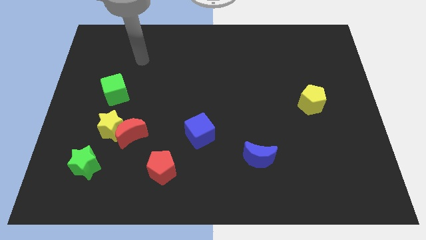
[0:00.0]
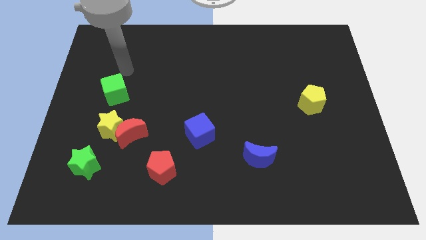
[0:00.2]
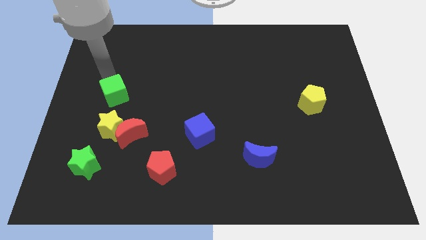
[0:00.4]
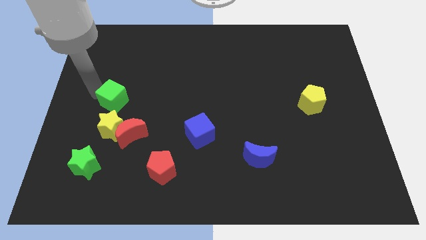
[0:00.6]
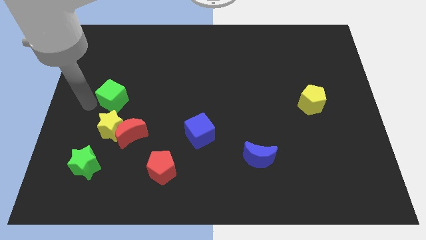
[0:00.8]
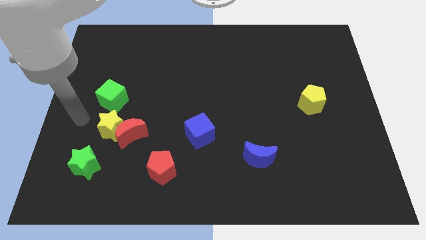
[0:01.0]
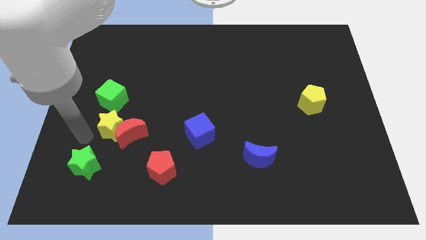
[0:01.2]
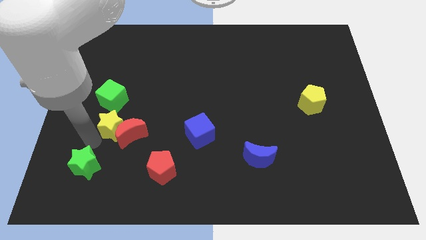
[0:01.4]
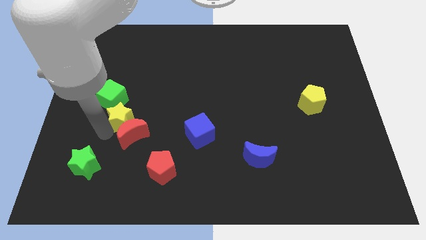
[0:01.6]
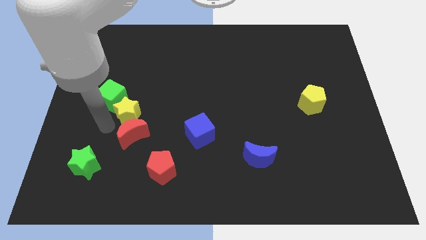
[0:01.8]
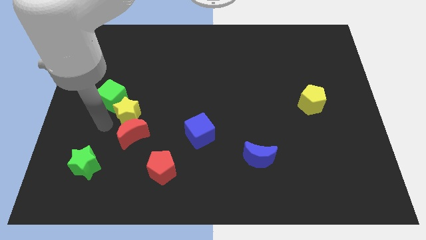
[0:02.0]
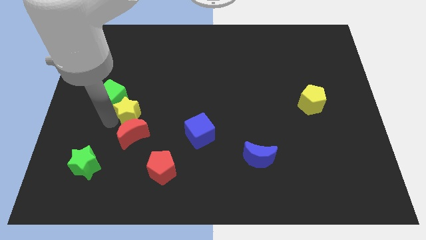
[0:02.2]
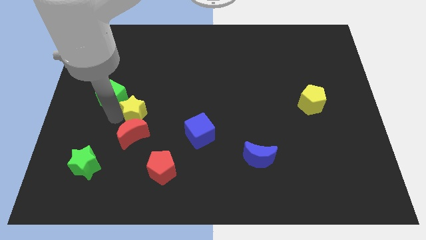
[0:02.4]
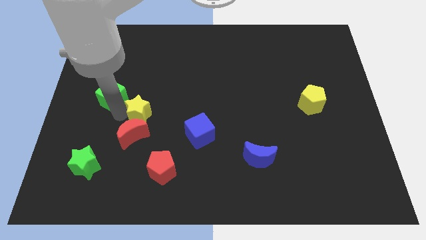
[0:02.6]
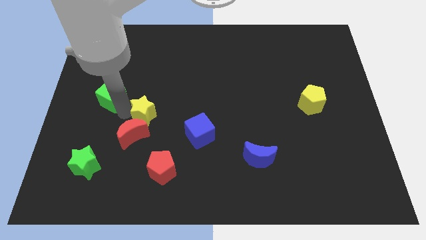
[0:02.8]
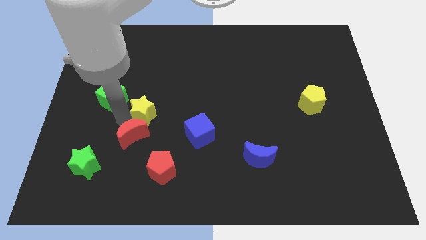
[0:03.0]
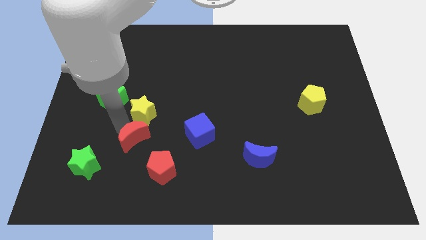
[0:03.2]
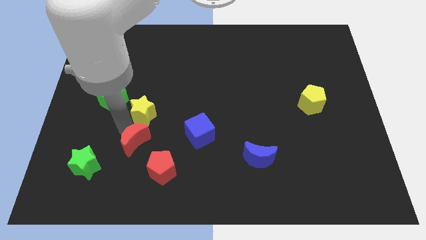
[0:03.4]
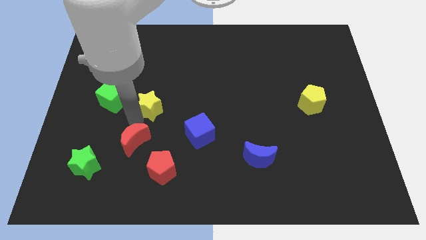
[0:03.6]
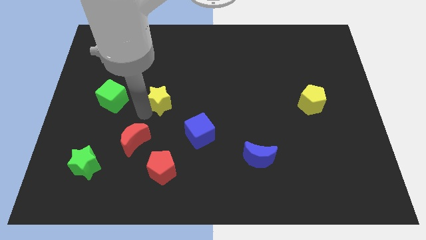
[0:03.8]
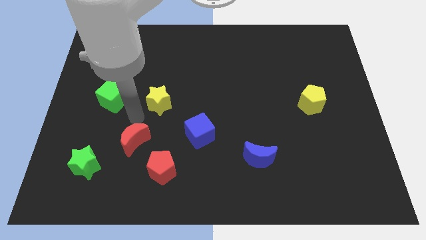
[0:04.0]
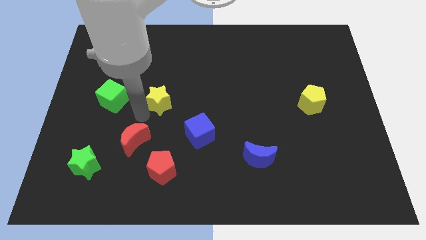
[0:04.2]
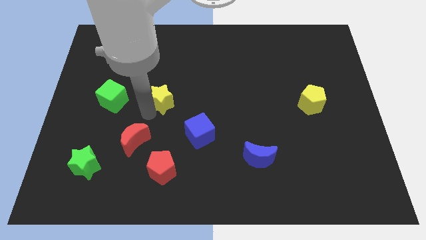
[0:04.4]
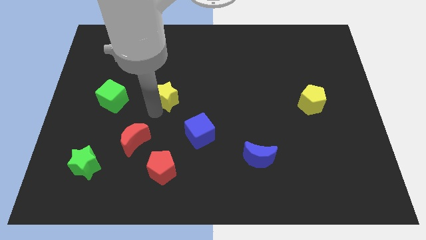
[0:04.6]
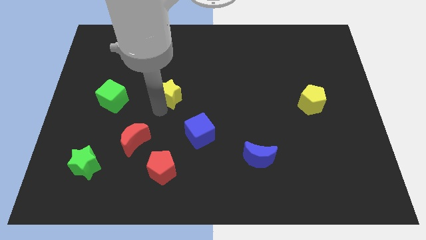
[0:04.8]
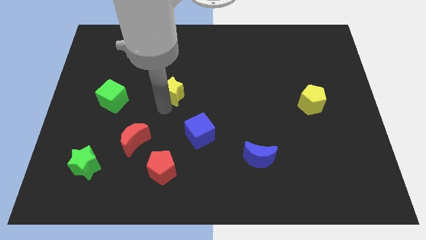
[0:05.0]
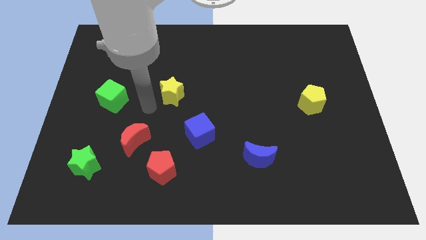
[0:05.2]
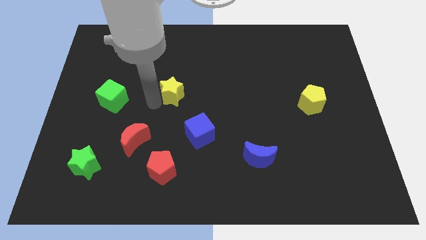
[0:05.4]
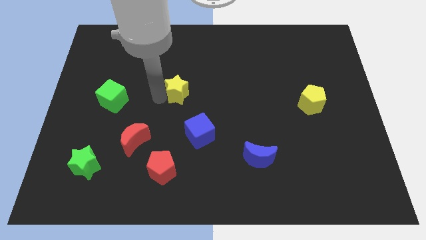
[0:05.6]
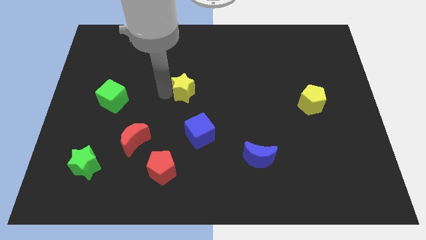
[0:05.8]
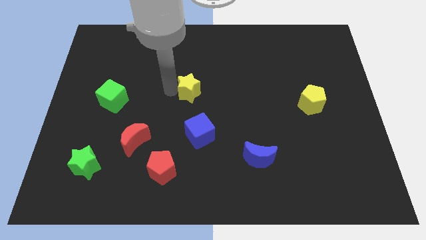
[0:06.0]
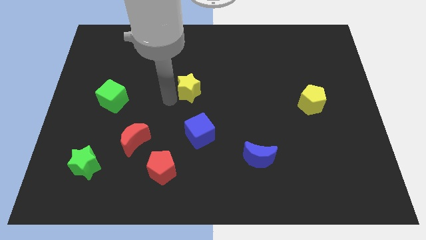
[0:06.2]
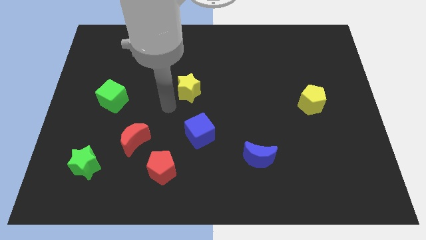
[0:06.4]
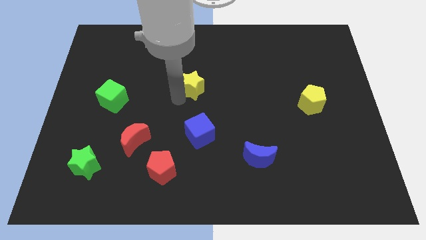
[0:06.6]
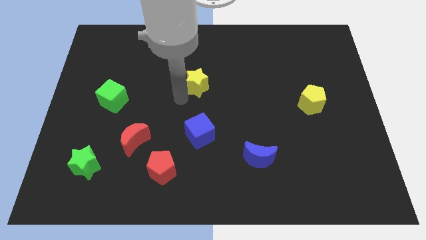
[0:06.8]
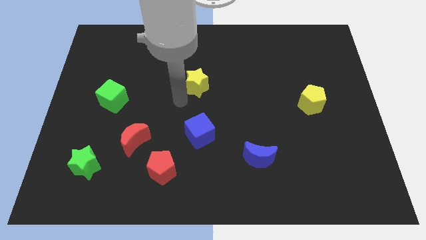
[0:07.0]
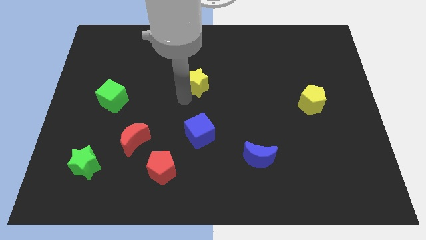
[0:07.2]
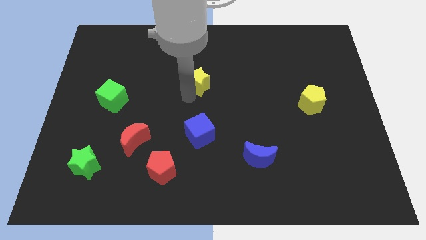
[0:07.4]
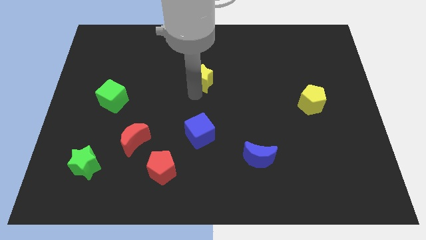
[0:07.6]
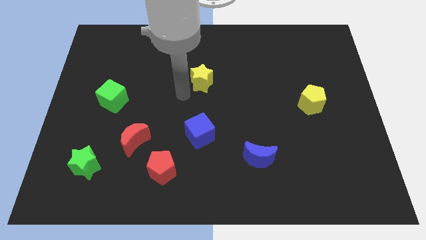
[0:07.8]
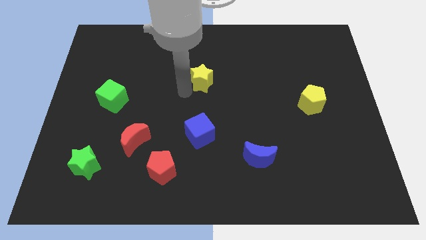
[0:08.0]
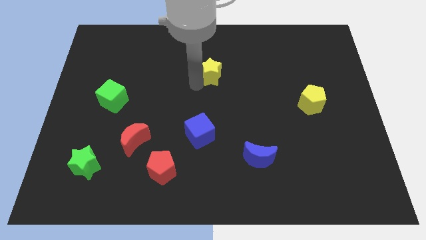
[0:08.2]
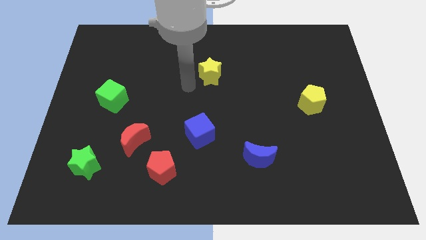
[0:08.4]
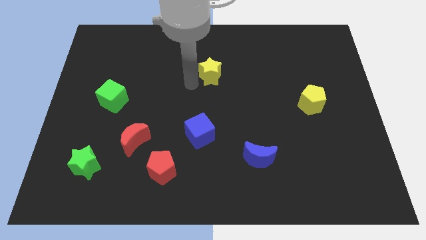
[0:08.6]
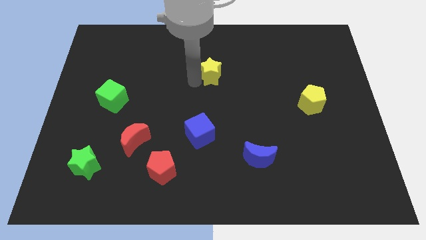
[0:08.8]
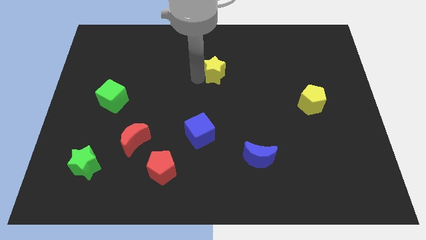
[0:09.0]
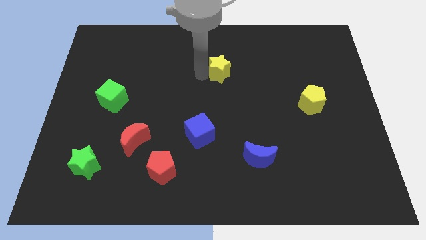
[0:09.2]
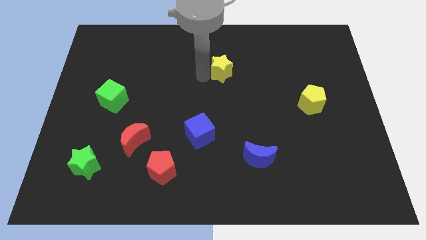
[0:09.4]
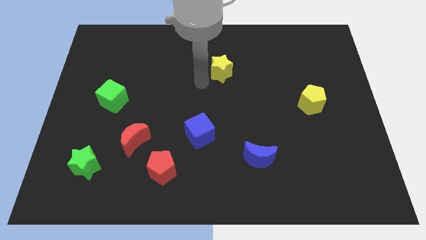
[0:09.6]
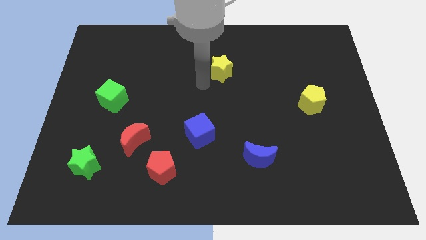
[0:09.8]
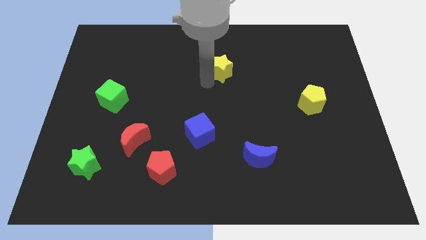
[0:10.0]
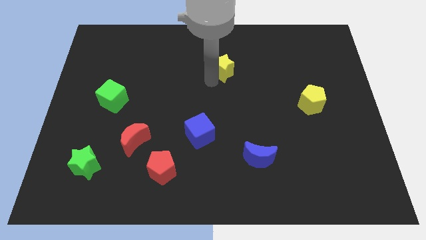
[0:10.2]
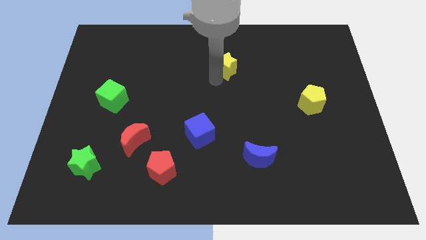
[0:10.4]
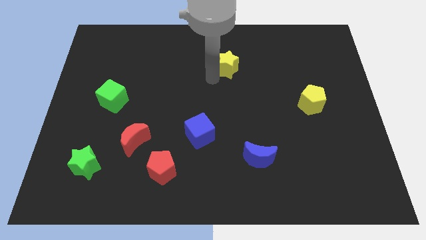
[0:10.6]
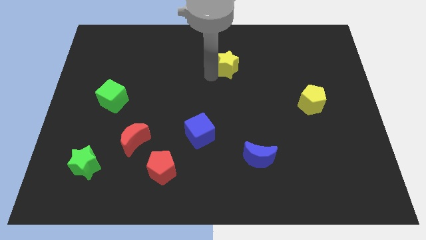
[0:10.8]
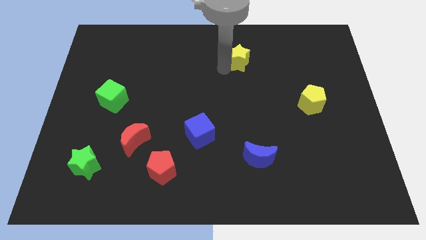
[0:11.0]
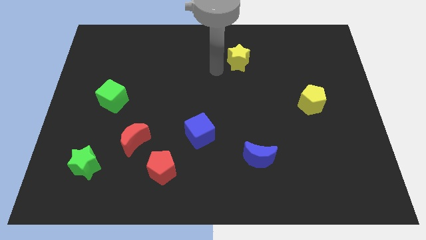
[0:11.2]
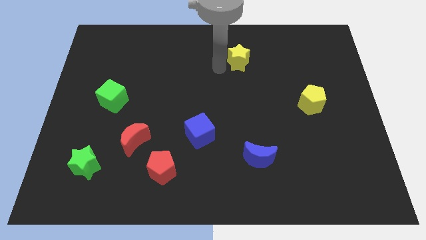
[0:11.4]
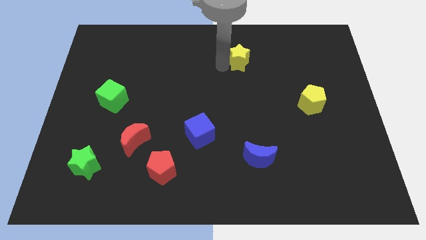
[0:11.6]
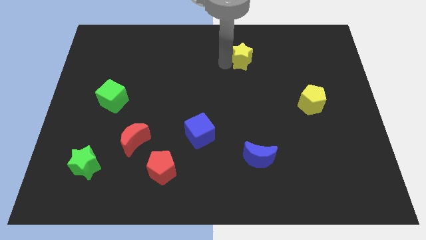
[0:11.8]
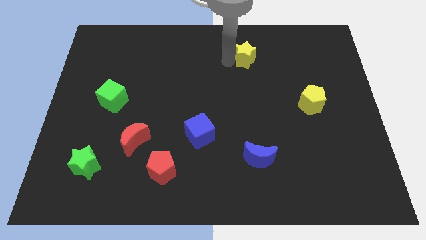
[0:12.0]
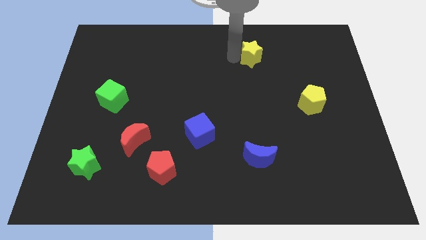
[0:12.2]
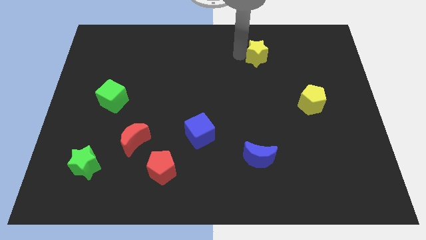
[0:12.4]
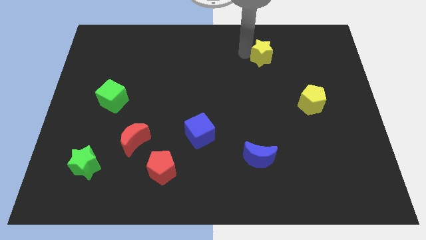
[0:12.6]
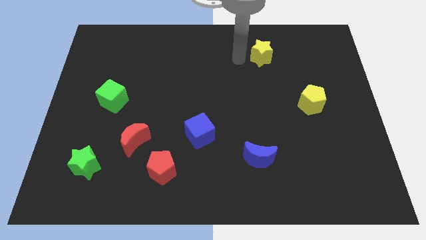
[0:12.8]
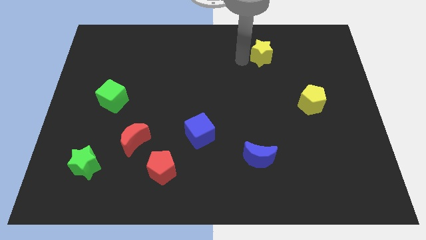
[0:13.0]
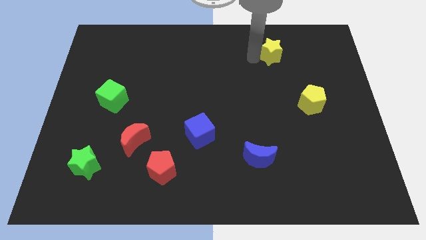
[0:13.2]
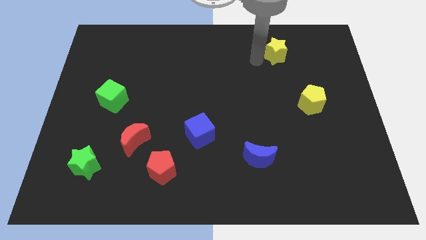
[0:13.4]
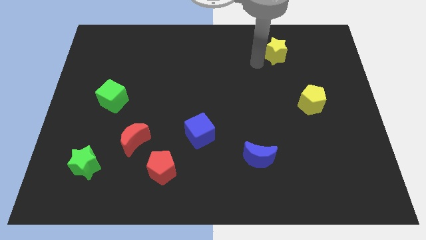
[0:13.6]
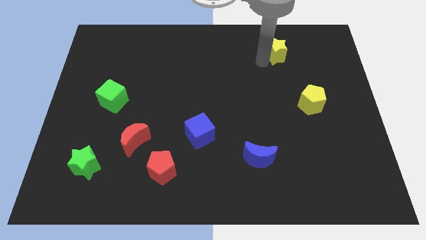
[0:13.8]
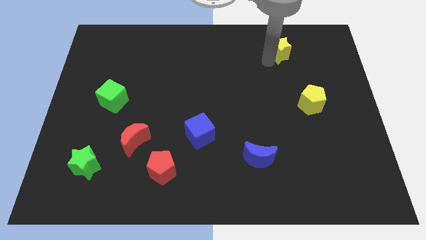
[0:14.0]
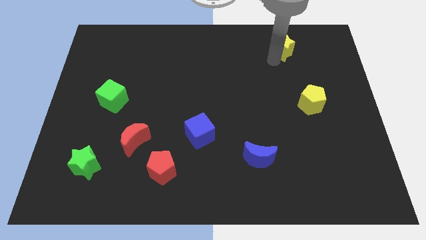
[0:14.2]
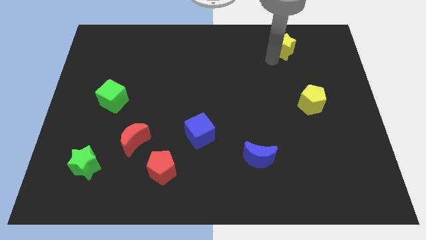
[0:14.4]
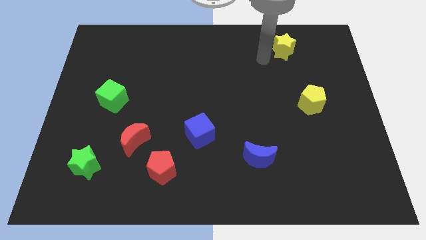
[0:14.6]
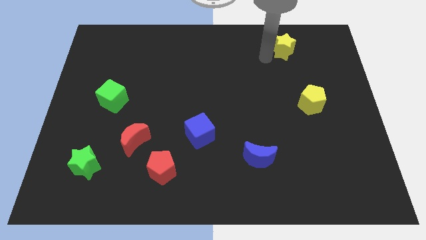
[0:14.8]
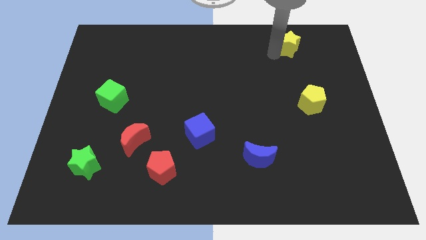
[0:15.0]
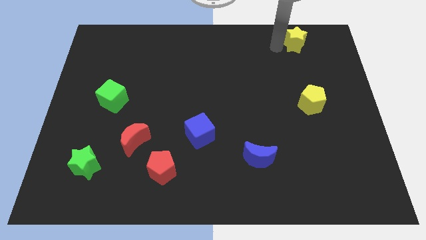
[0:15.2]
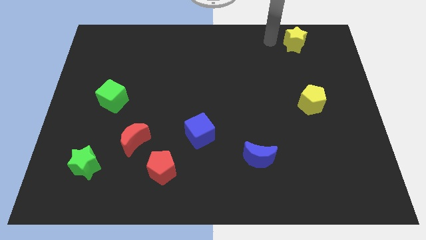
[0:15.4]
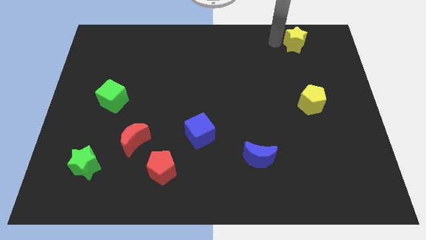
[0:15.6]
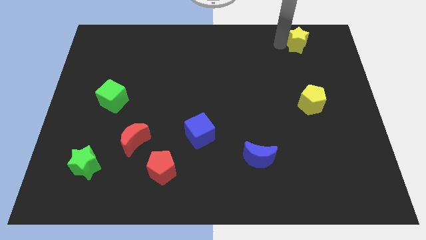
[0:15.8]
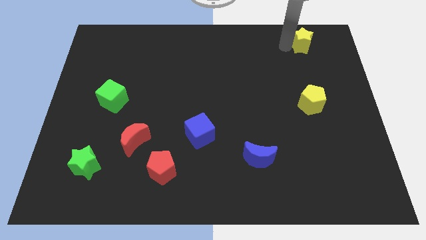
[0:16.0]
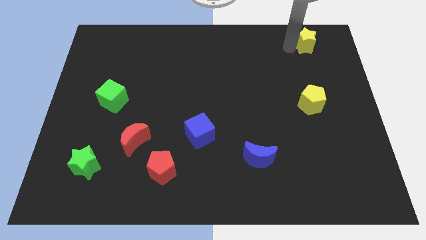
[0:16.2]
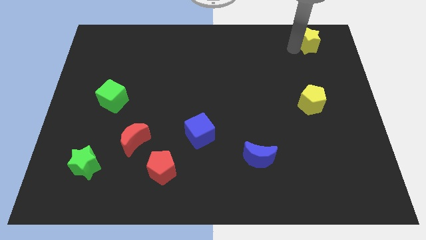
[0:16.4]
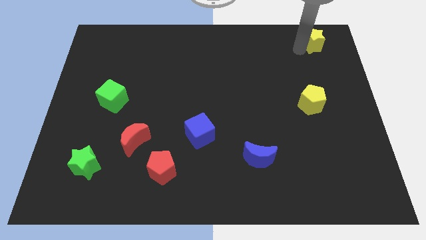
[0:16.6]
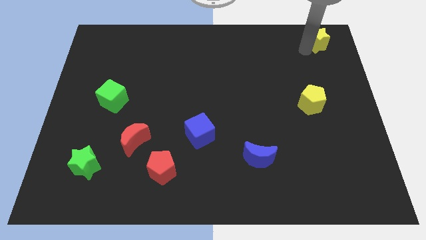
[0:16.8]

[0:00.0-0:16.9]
slide the yellow star to the top right corner
